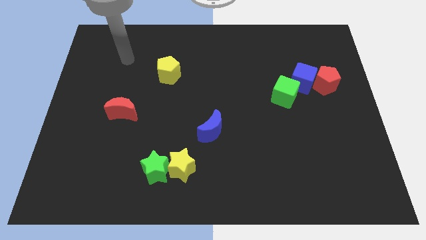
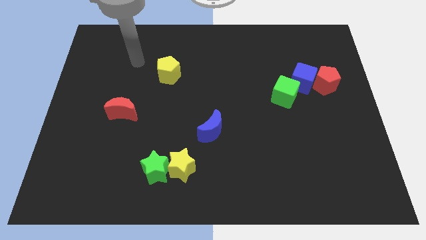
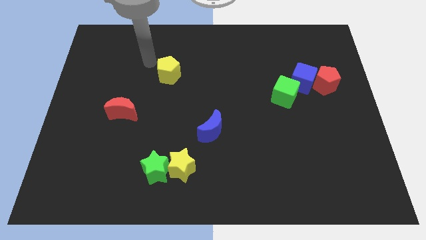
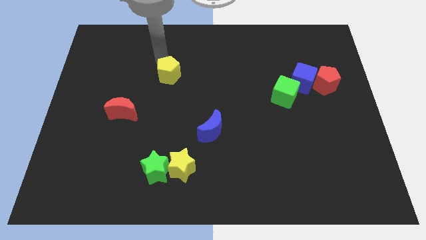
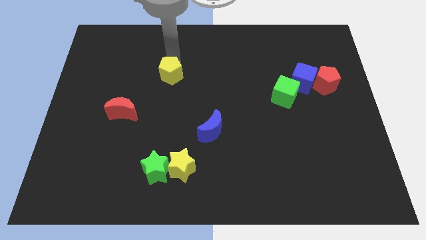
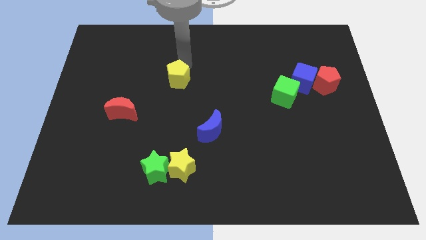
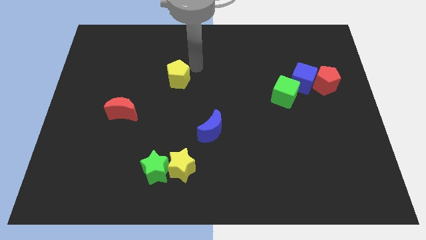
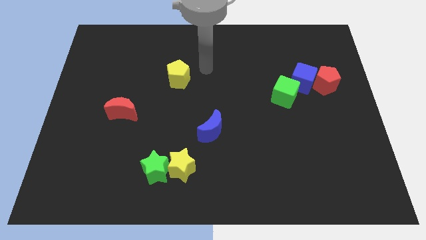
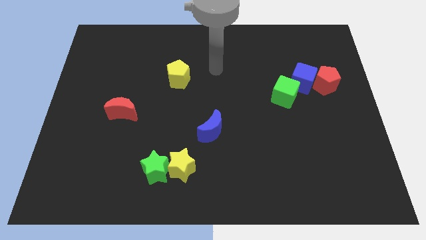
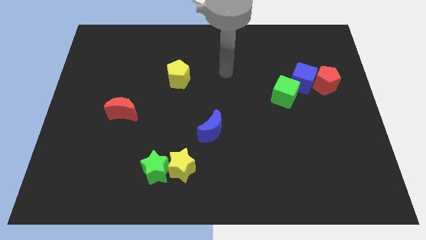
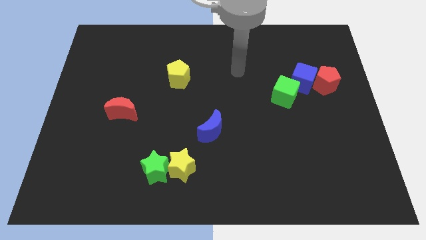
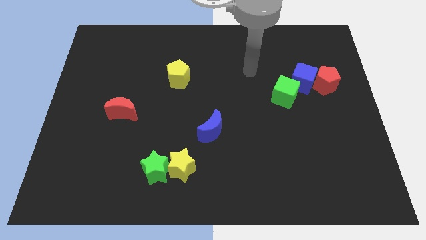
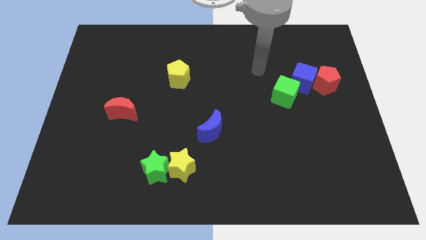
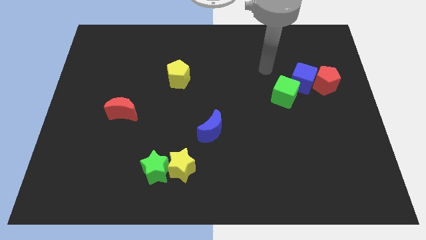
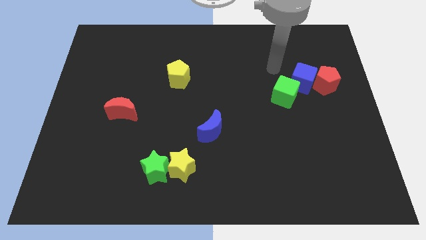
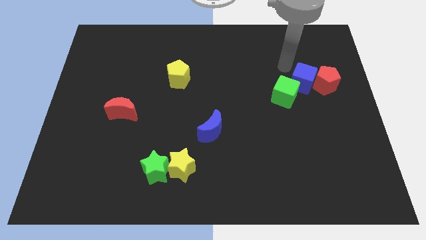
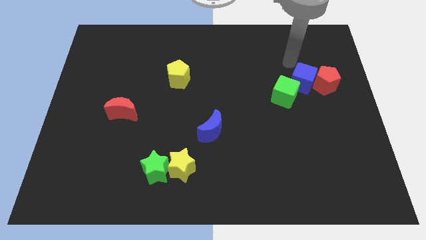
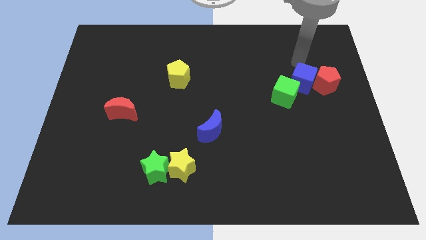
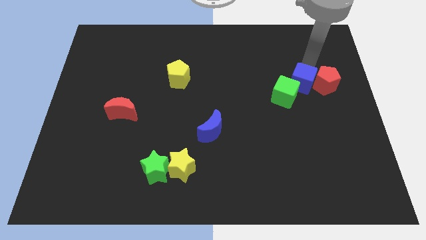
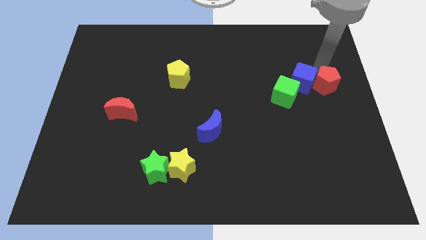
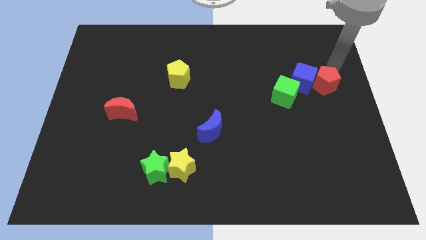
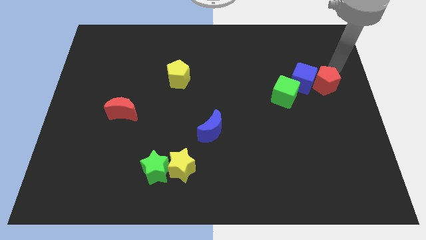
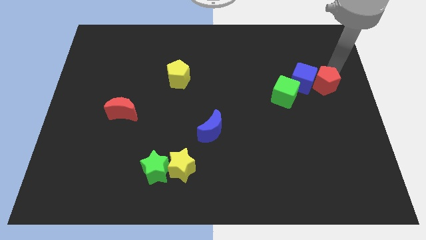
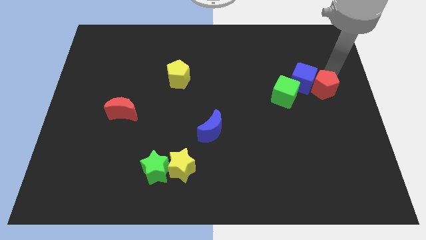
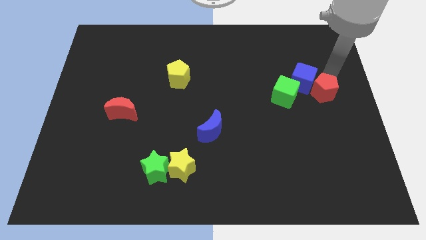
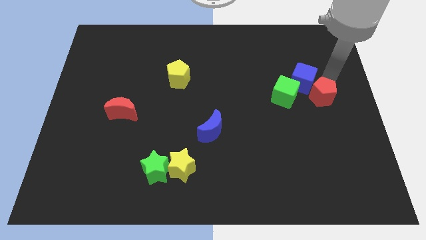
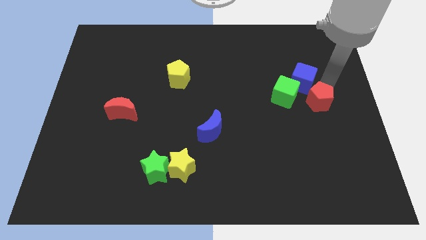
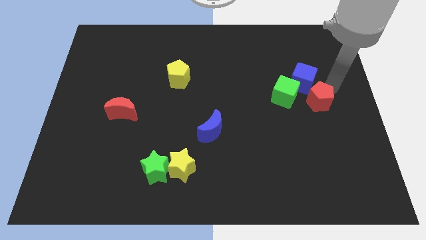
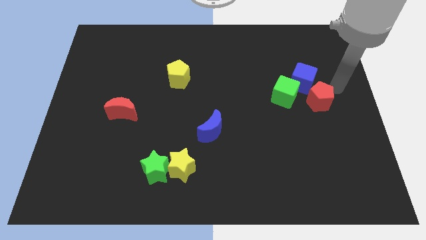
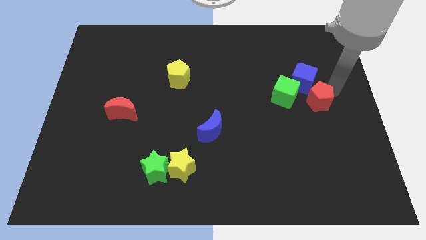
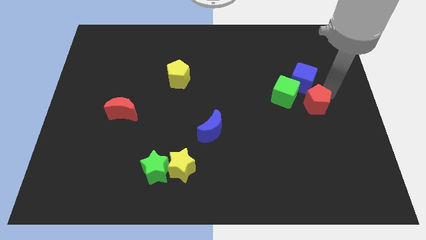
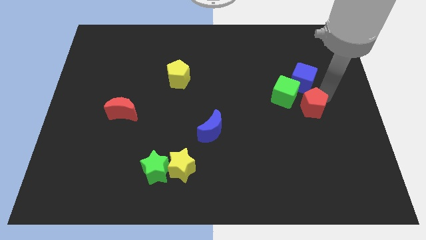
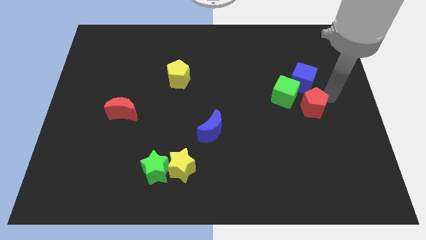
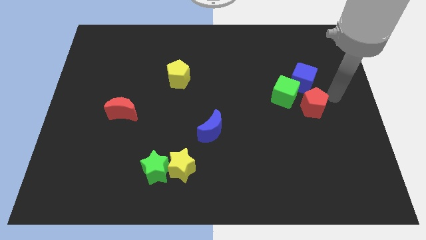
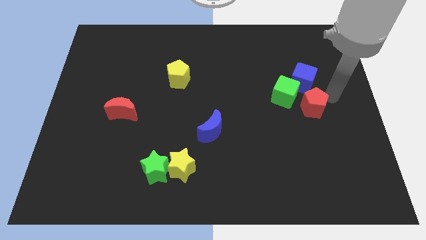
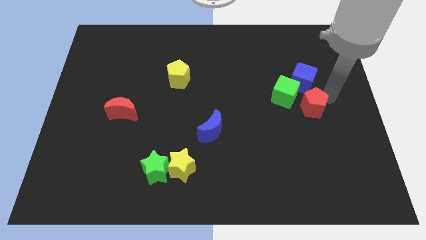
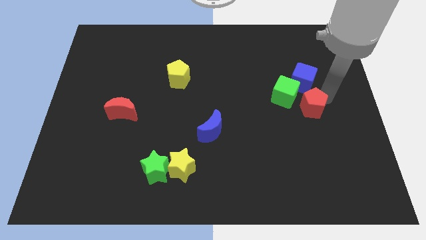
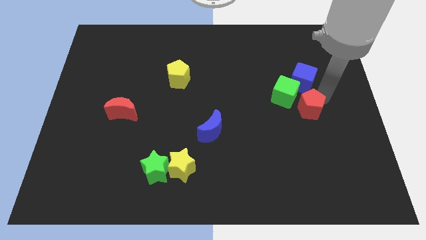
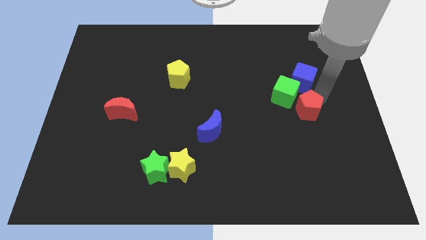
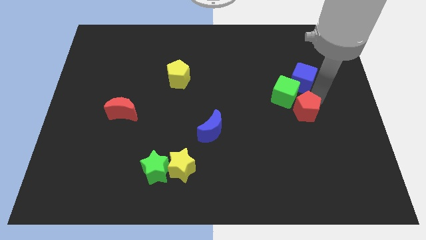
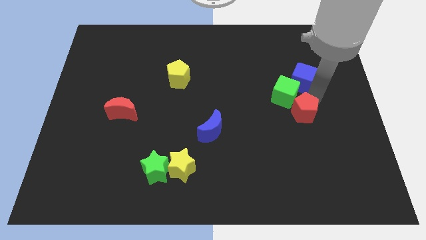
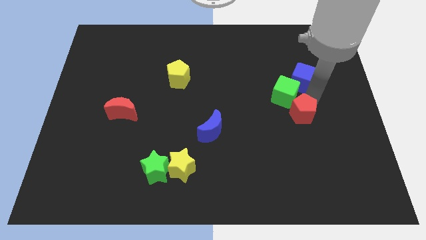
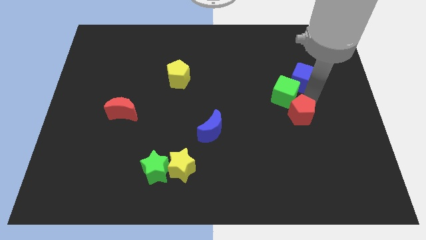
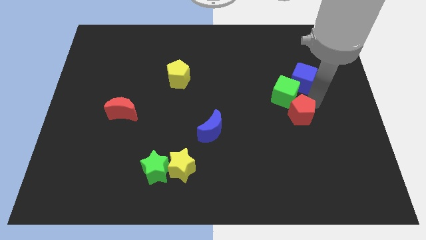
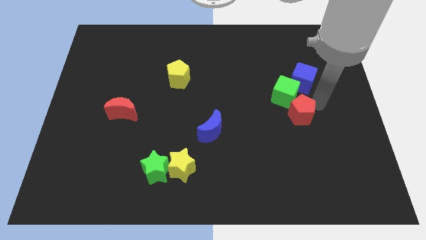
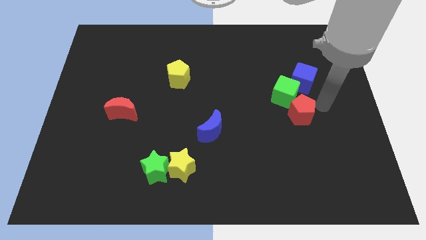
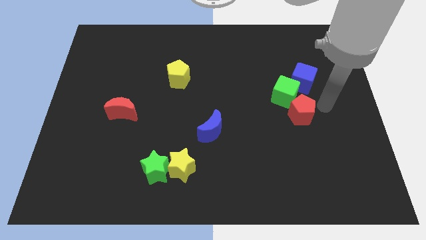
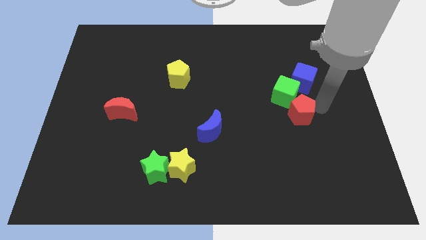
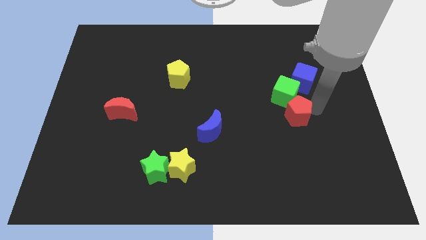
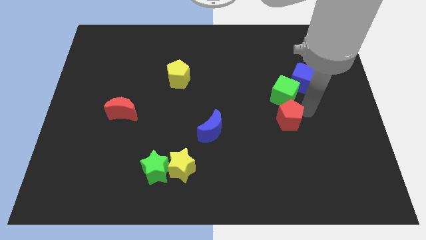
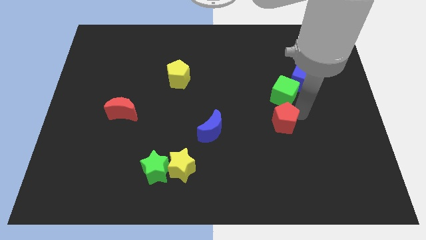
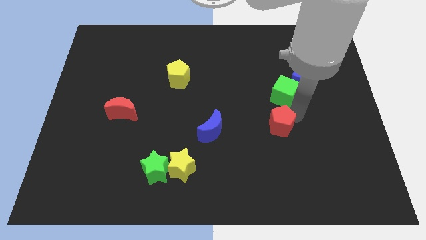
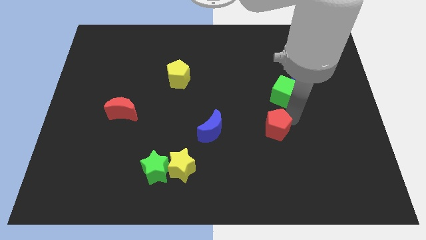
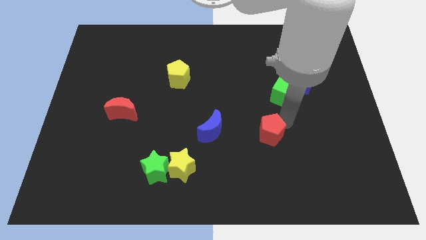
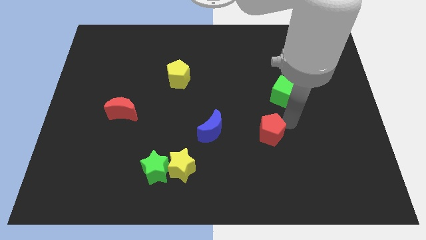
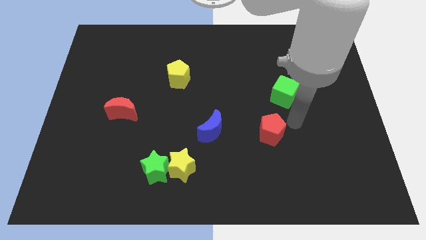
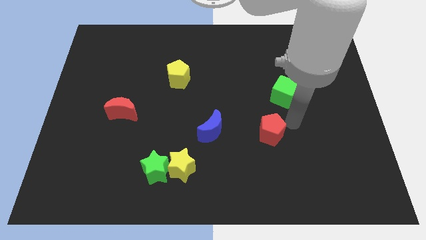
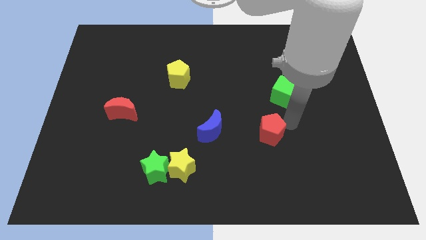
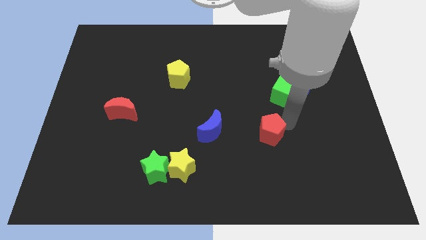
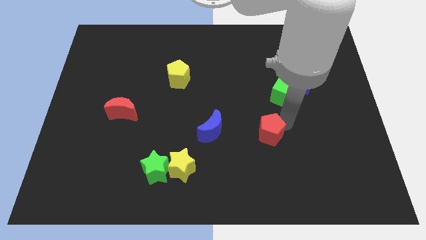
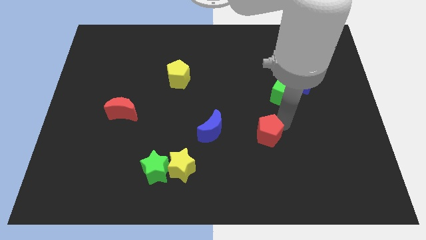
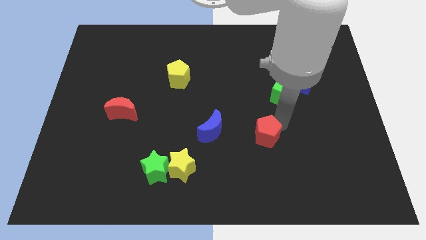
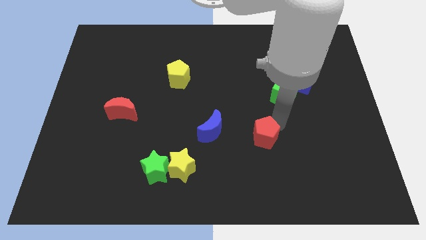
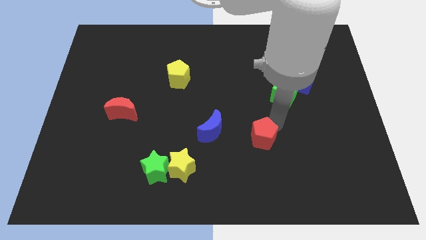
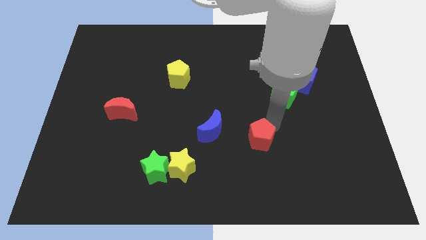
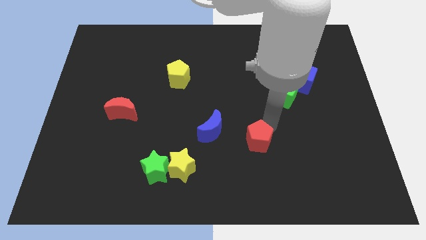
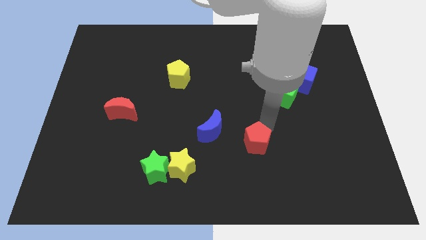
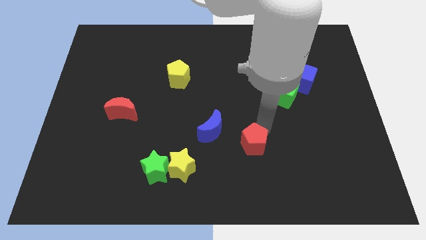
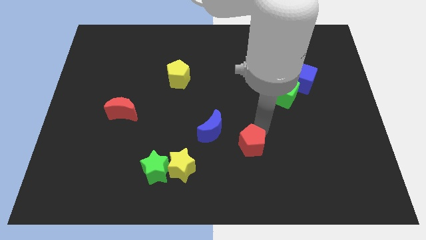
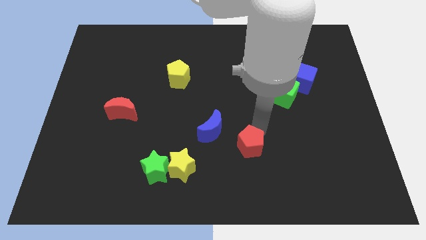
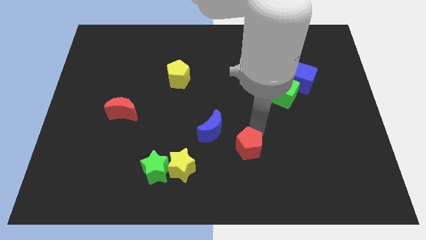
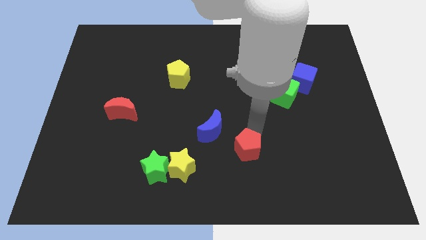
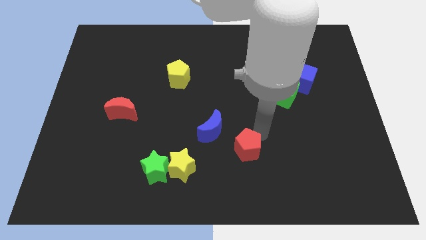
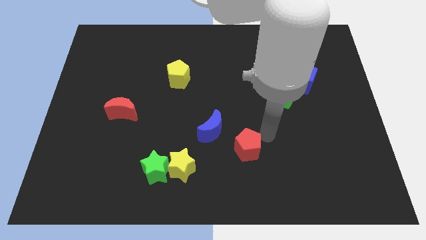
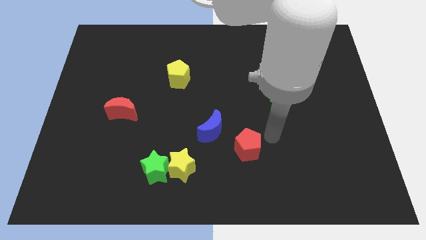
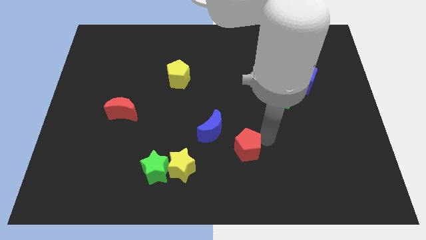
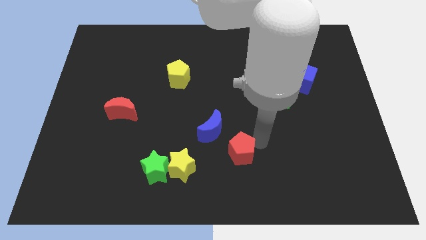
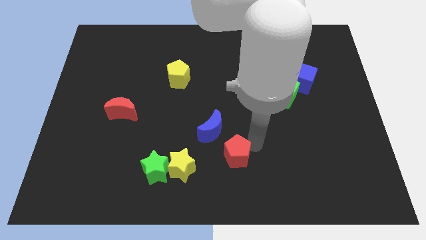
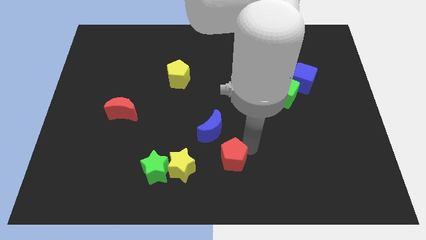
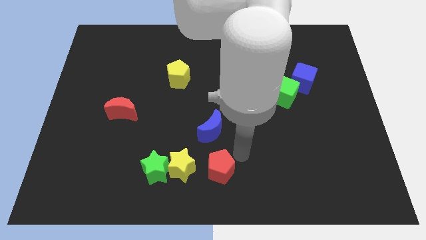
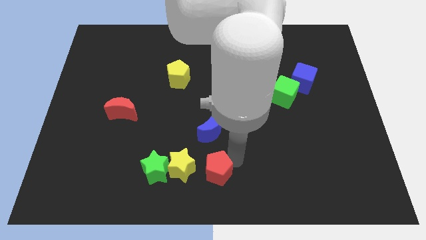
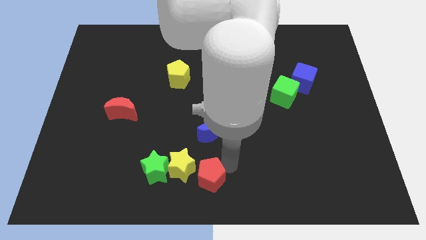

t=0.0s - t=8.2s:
push the red pentagon close to the yellow star
